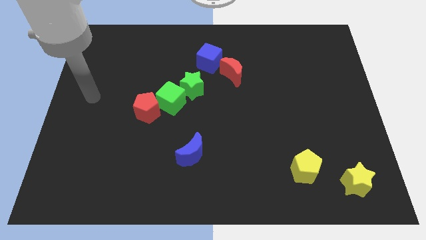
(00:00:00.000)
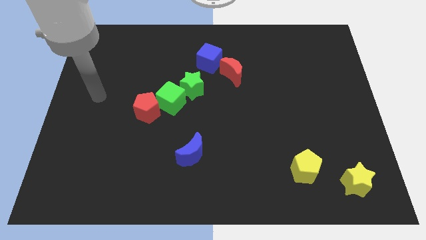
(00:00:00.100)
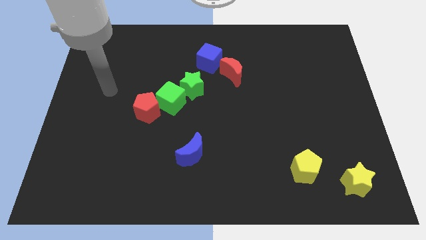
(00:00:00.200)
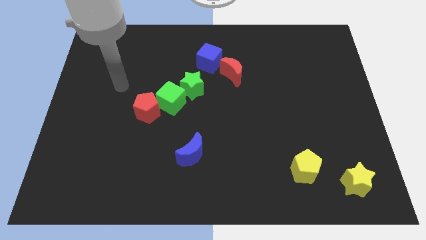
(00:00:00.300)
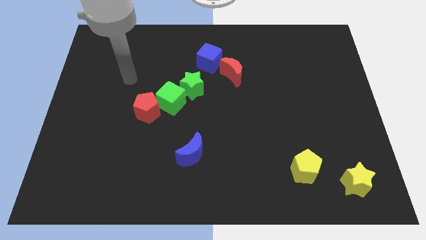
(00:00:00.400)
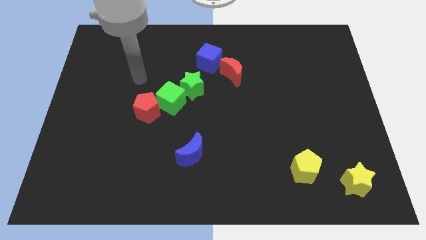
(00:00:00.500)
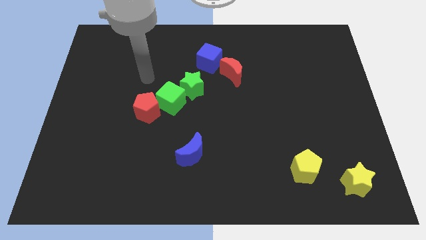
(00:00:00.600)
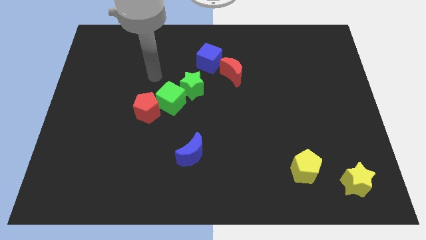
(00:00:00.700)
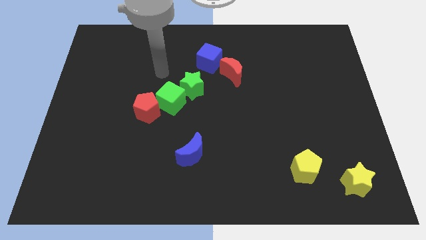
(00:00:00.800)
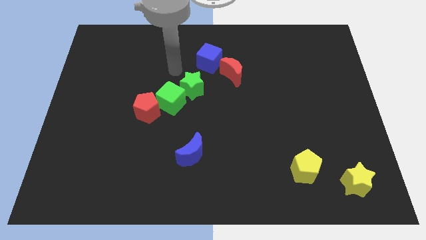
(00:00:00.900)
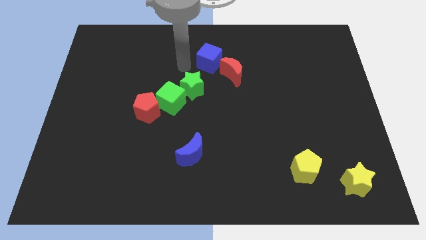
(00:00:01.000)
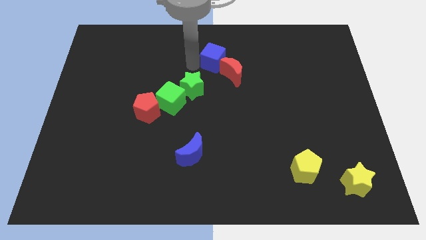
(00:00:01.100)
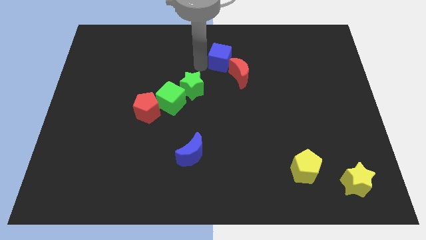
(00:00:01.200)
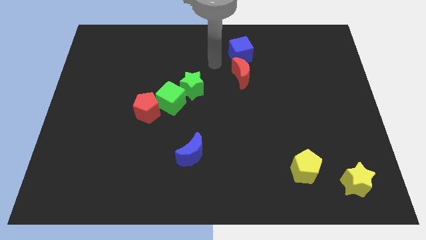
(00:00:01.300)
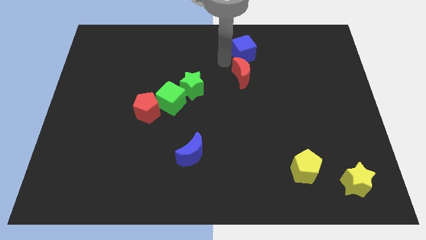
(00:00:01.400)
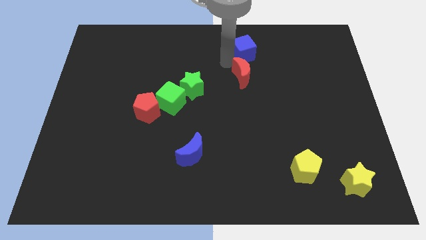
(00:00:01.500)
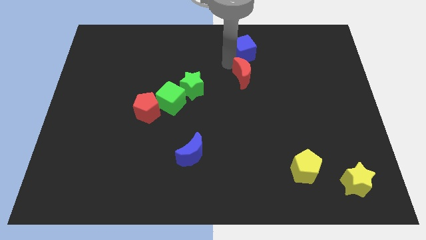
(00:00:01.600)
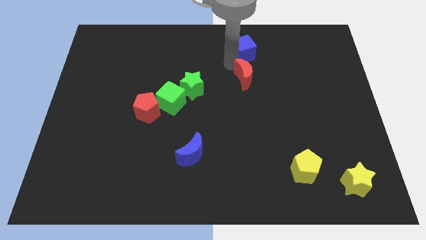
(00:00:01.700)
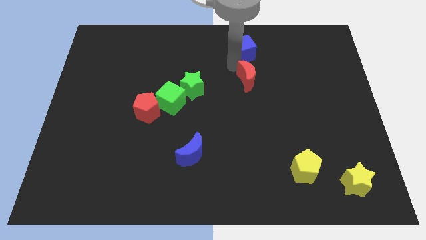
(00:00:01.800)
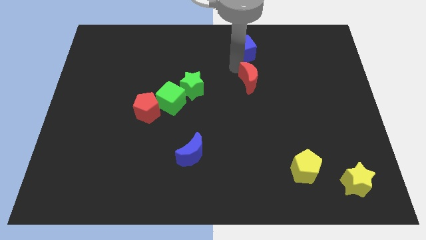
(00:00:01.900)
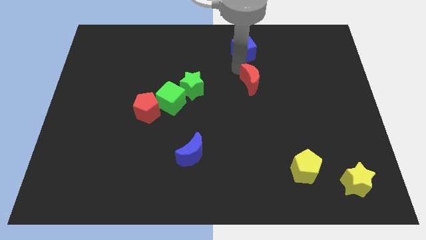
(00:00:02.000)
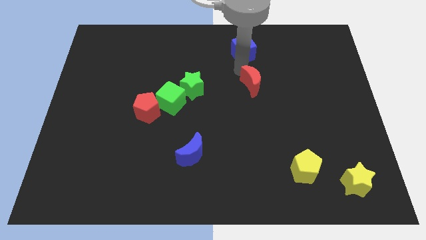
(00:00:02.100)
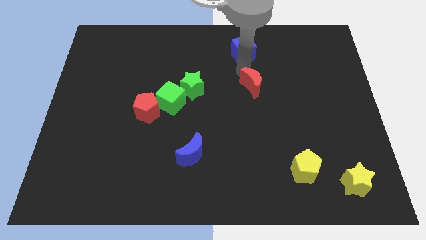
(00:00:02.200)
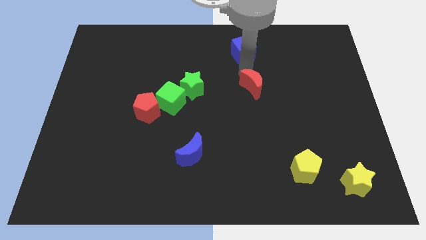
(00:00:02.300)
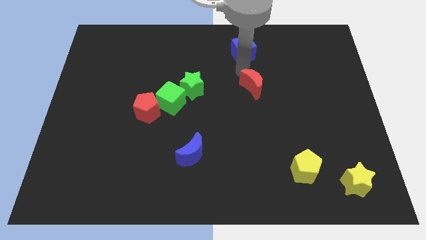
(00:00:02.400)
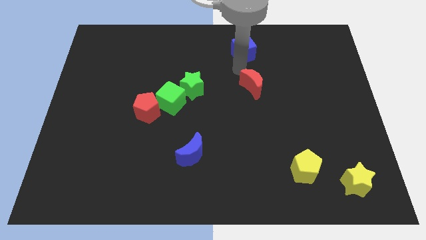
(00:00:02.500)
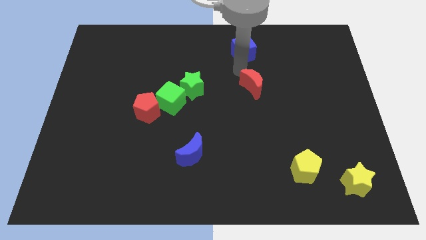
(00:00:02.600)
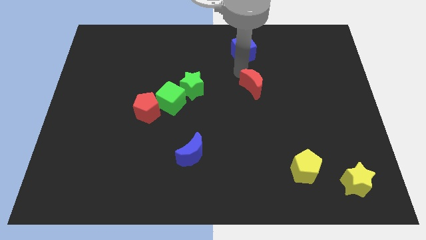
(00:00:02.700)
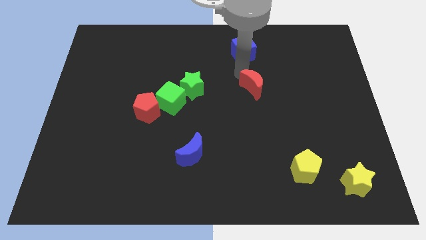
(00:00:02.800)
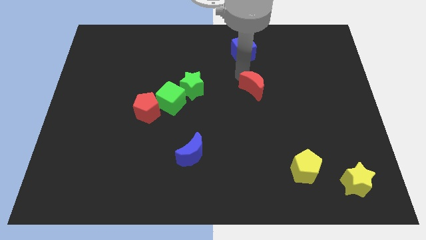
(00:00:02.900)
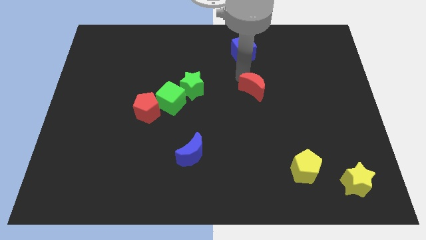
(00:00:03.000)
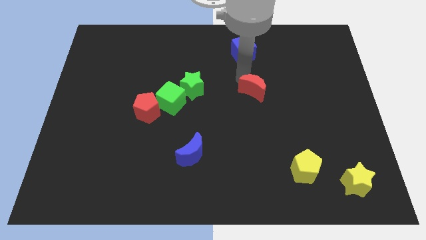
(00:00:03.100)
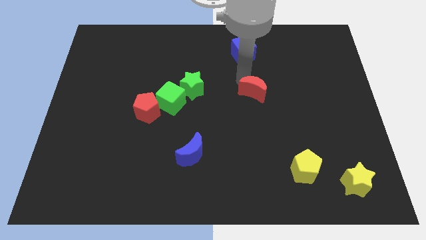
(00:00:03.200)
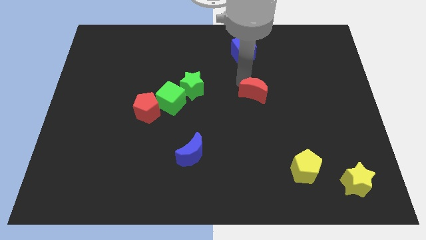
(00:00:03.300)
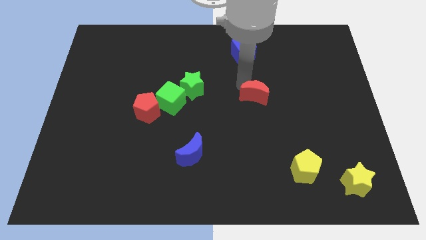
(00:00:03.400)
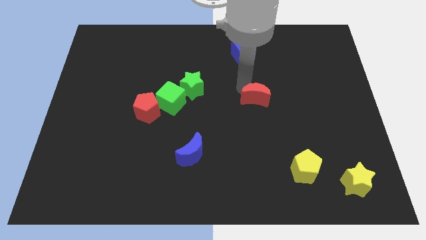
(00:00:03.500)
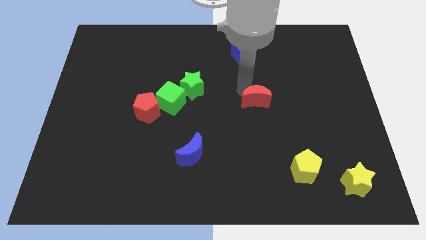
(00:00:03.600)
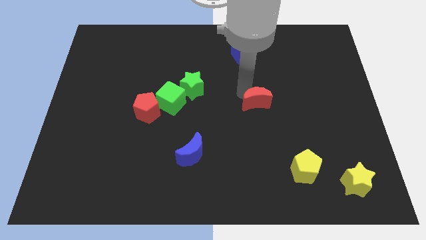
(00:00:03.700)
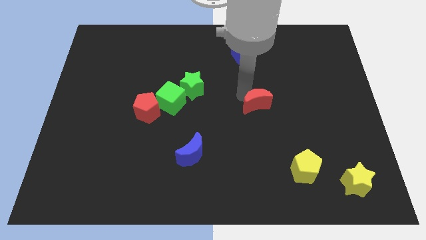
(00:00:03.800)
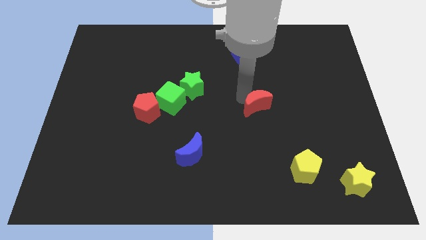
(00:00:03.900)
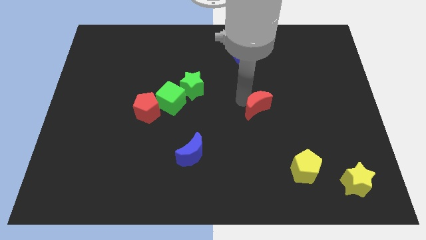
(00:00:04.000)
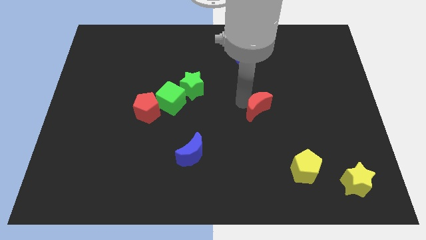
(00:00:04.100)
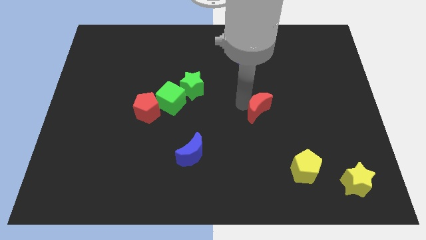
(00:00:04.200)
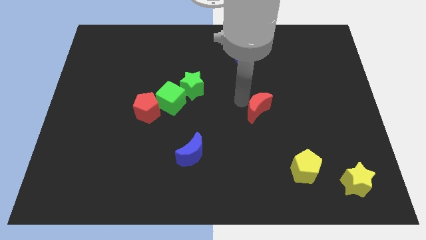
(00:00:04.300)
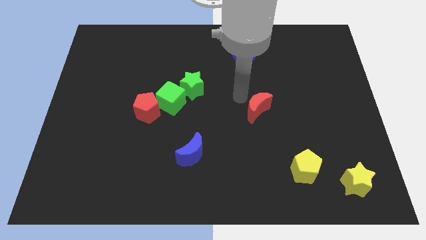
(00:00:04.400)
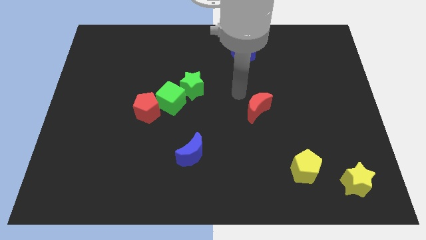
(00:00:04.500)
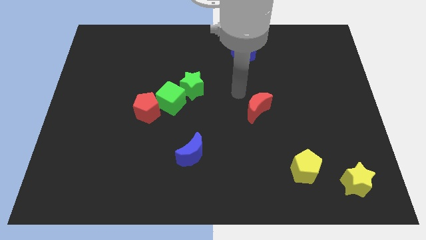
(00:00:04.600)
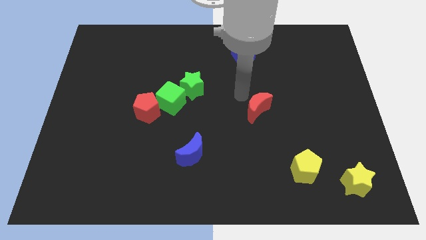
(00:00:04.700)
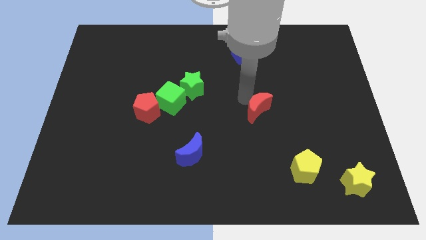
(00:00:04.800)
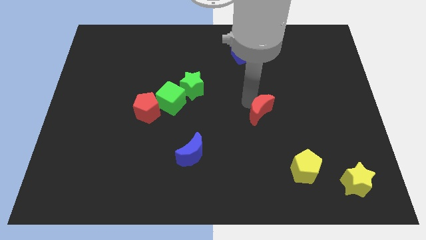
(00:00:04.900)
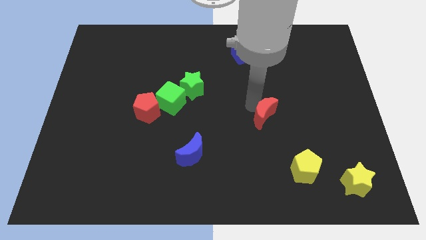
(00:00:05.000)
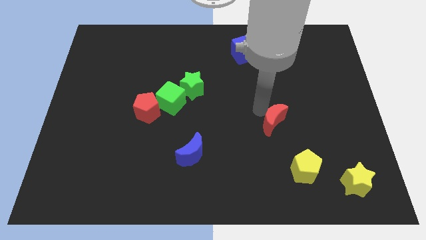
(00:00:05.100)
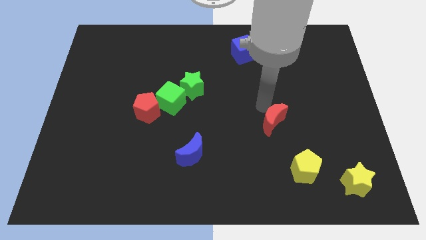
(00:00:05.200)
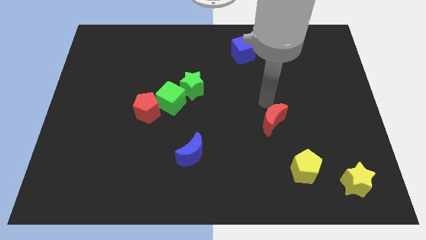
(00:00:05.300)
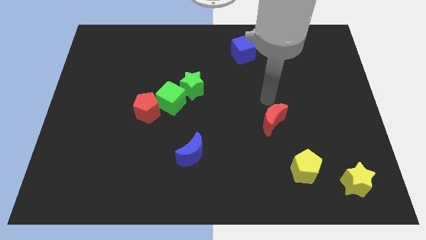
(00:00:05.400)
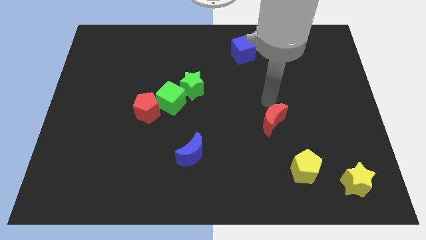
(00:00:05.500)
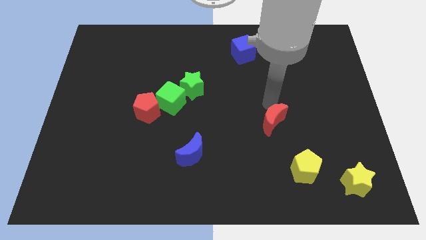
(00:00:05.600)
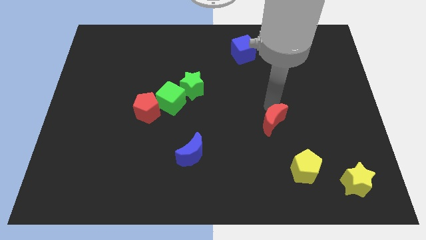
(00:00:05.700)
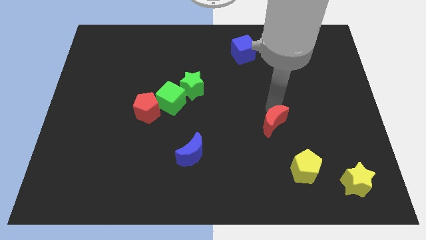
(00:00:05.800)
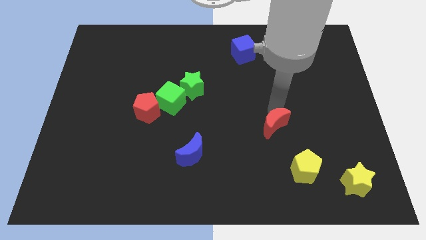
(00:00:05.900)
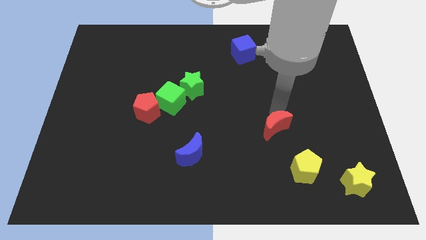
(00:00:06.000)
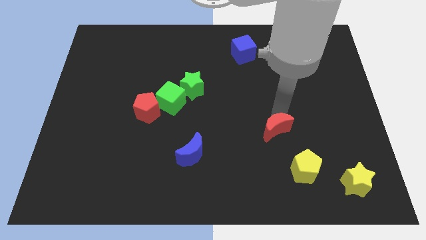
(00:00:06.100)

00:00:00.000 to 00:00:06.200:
slide the red moon to the top left of the yellow pentagon

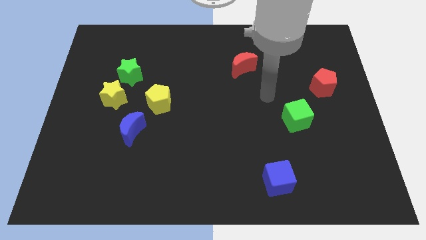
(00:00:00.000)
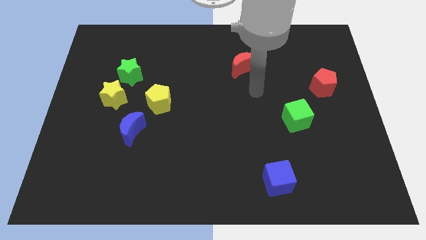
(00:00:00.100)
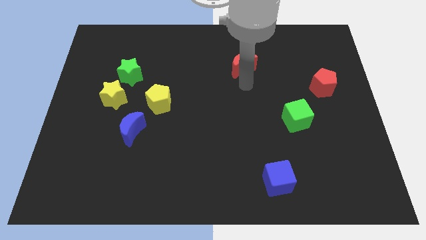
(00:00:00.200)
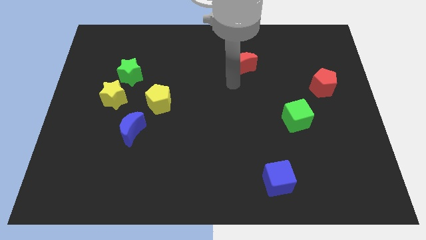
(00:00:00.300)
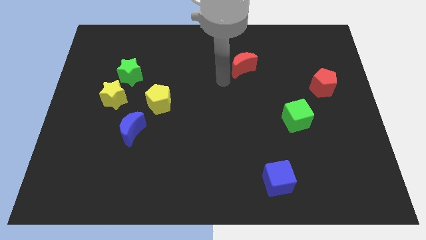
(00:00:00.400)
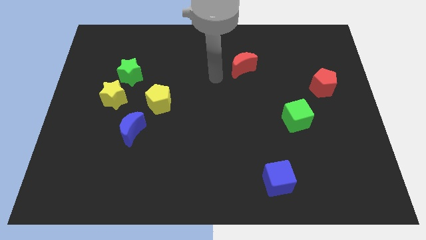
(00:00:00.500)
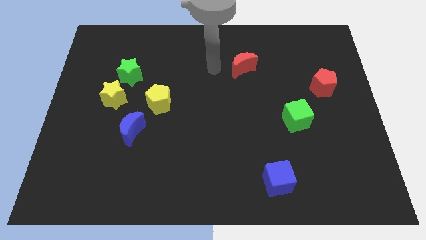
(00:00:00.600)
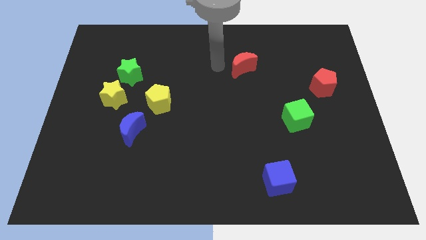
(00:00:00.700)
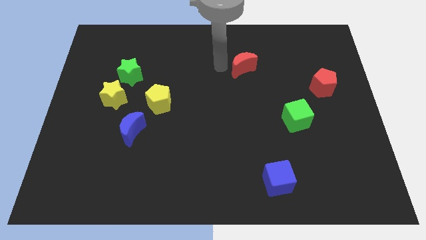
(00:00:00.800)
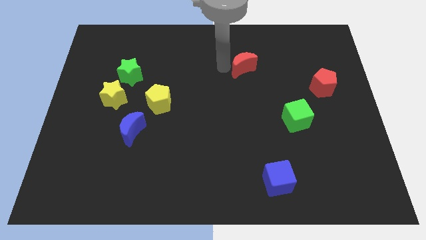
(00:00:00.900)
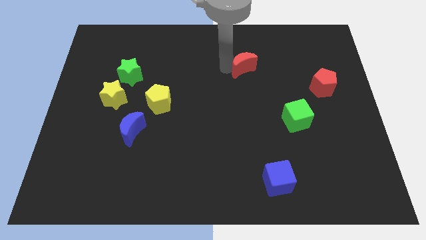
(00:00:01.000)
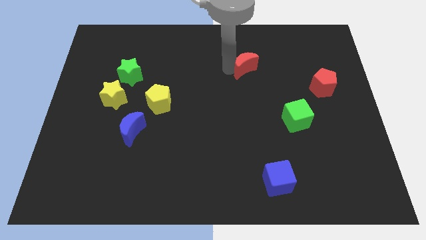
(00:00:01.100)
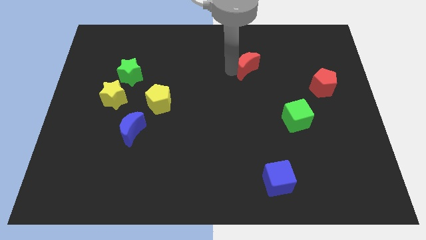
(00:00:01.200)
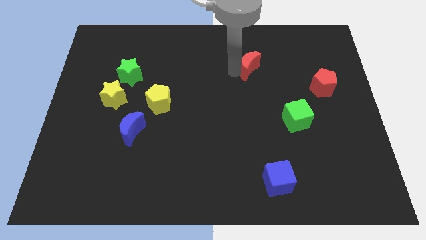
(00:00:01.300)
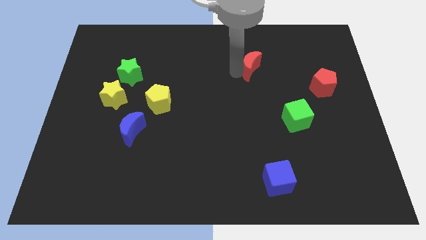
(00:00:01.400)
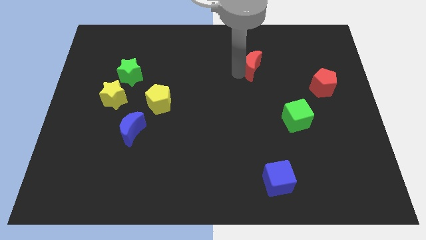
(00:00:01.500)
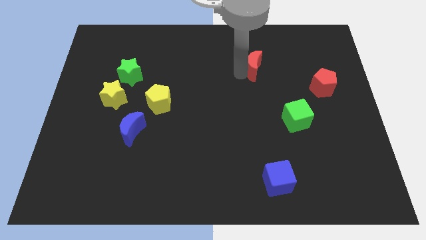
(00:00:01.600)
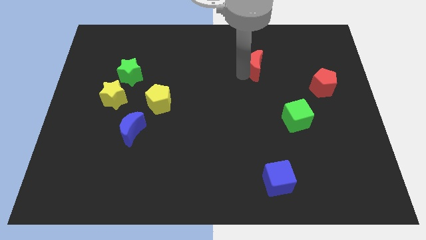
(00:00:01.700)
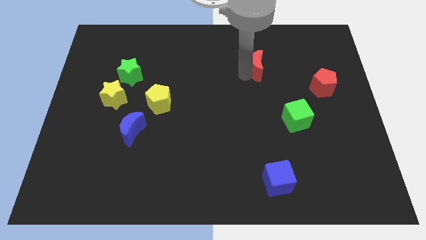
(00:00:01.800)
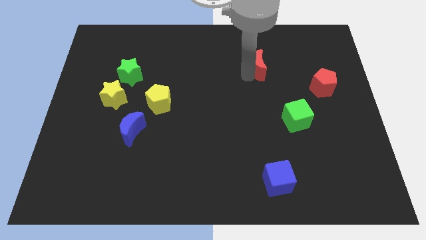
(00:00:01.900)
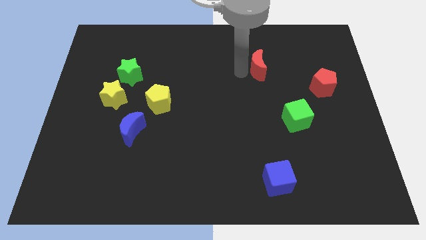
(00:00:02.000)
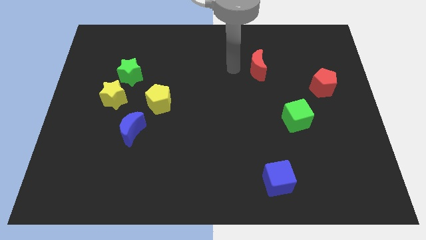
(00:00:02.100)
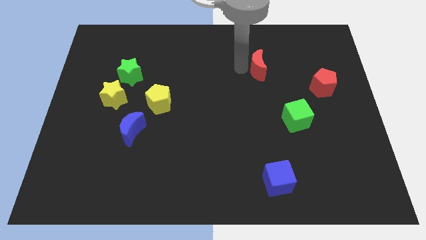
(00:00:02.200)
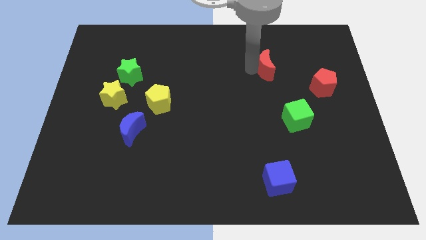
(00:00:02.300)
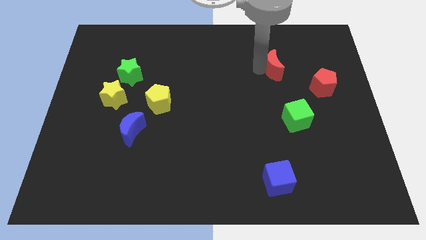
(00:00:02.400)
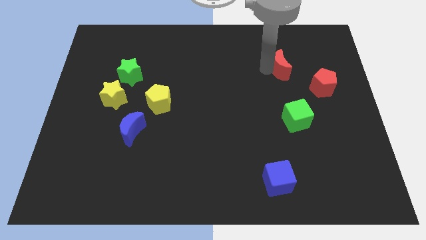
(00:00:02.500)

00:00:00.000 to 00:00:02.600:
slide the red moon to the top left of the red pentagon
